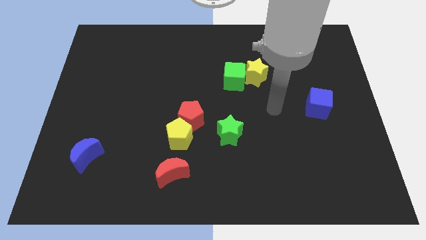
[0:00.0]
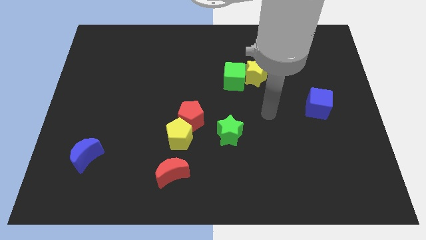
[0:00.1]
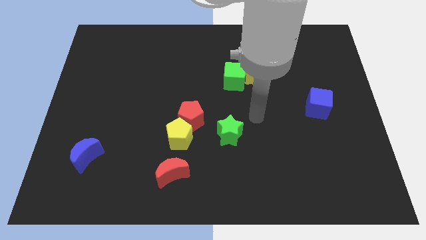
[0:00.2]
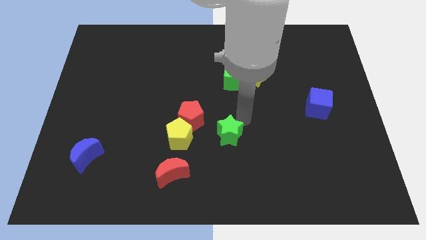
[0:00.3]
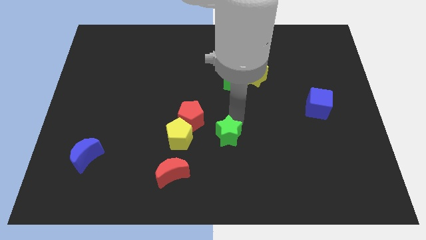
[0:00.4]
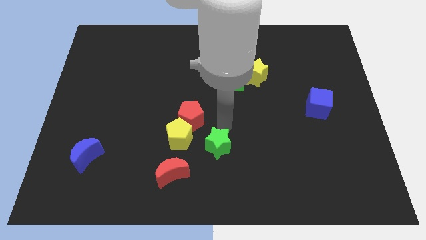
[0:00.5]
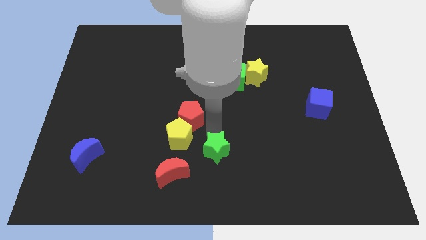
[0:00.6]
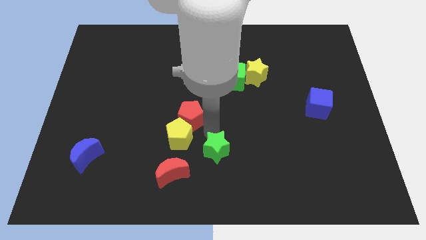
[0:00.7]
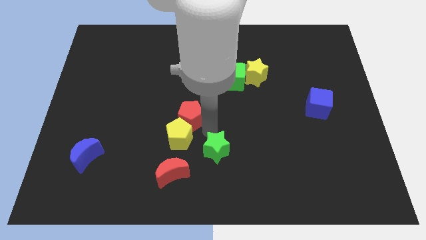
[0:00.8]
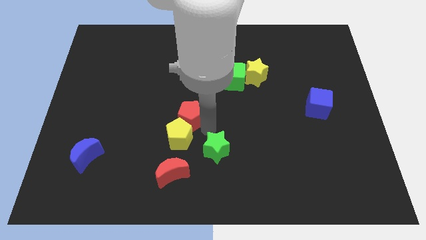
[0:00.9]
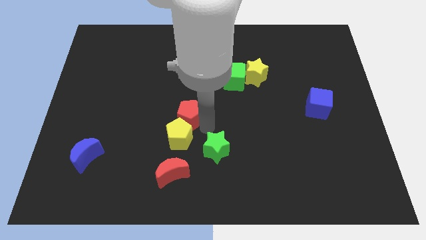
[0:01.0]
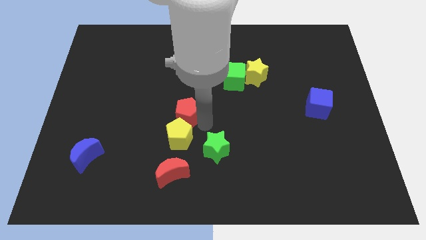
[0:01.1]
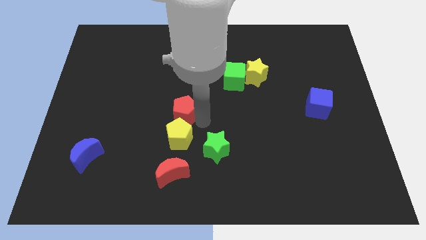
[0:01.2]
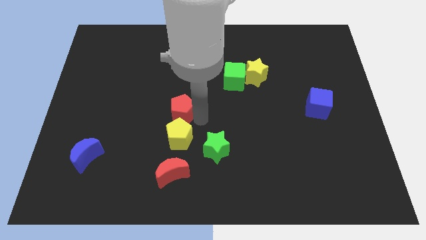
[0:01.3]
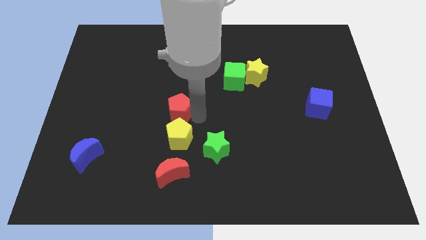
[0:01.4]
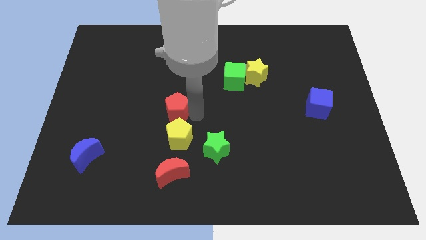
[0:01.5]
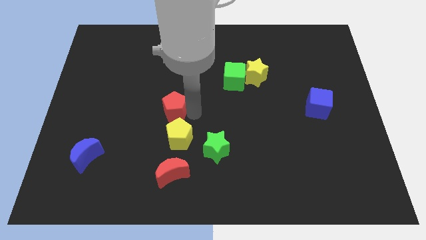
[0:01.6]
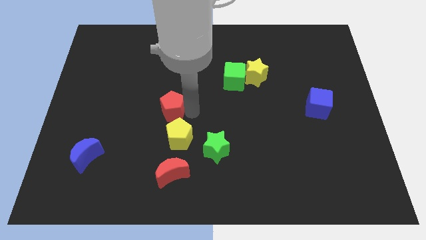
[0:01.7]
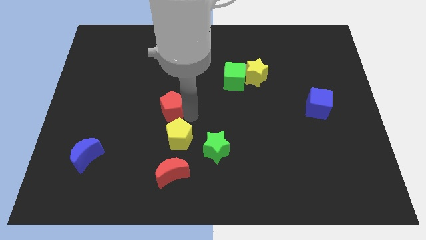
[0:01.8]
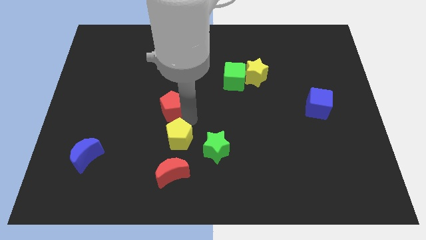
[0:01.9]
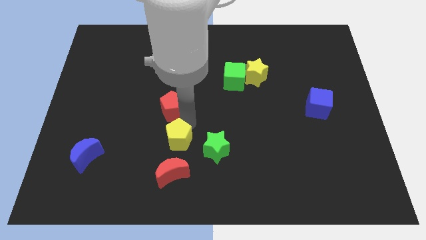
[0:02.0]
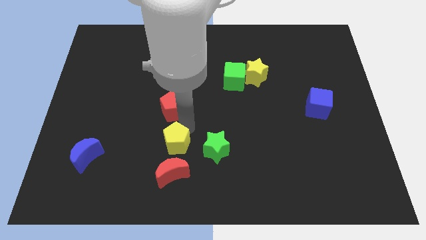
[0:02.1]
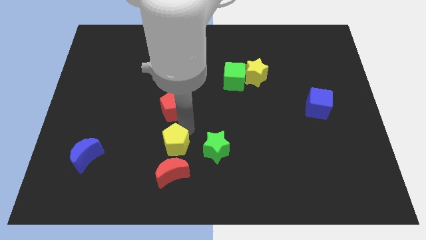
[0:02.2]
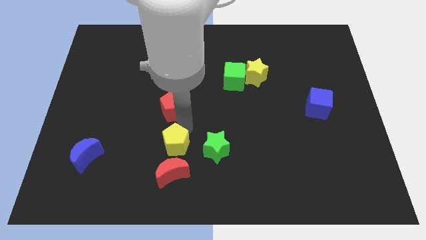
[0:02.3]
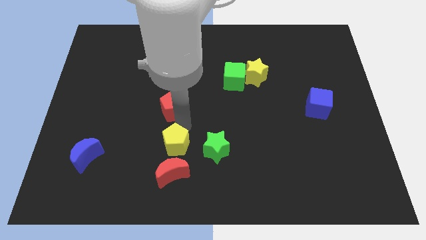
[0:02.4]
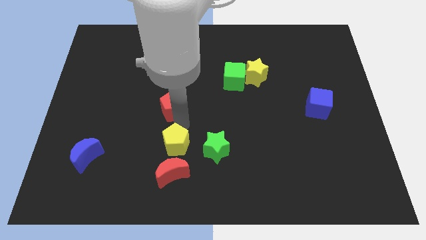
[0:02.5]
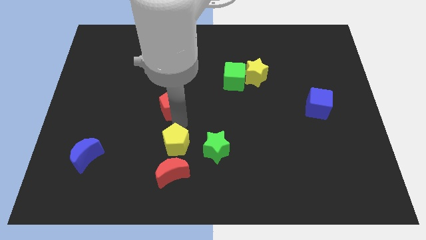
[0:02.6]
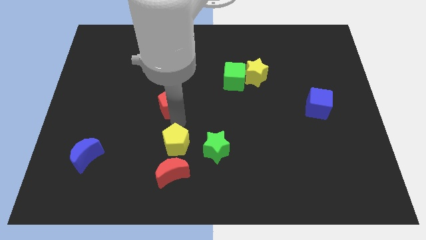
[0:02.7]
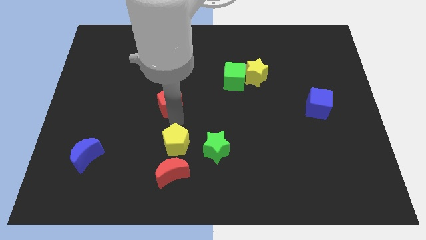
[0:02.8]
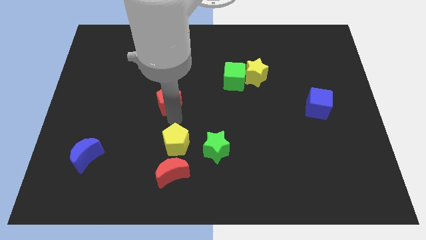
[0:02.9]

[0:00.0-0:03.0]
slightly push the red pentagon up and then to the left

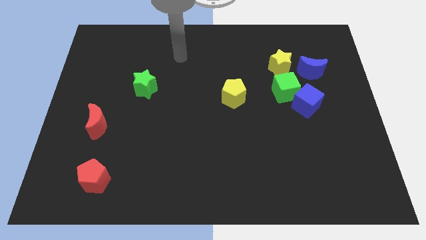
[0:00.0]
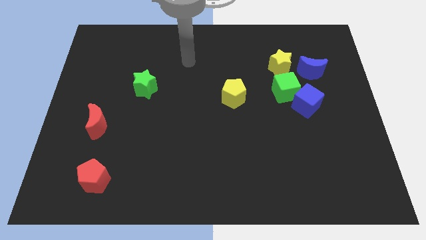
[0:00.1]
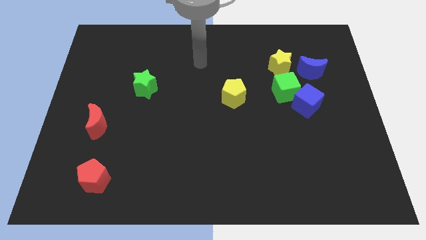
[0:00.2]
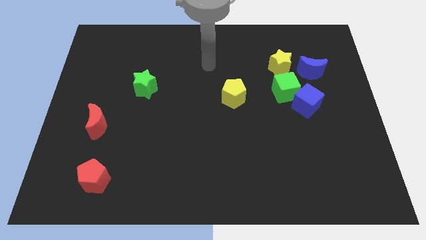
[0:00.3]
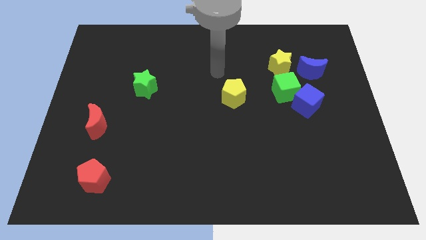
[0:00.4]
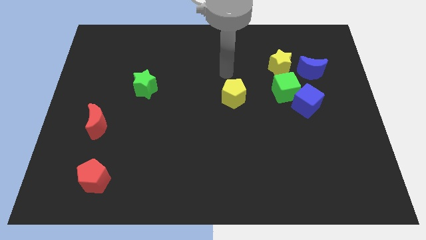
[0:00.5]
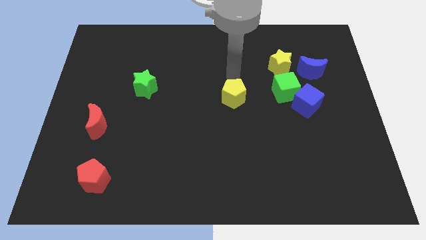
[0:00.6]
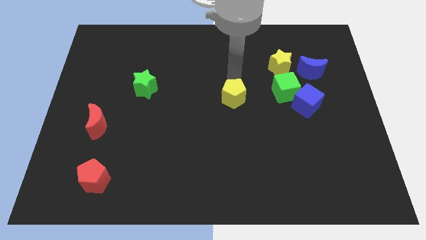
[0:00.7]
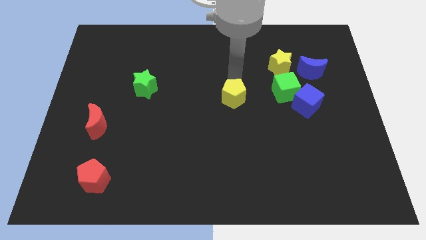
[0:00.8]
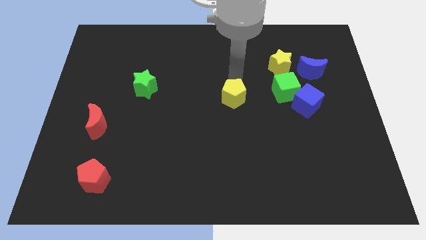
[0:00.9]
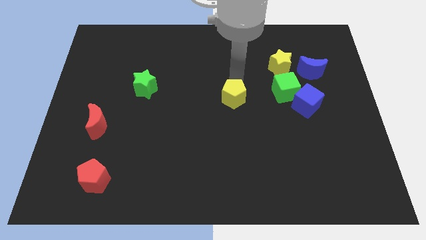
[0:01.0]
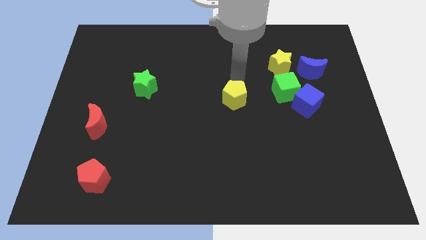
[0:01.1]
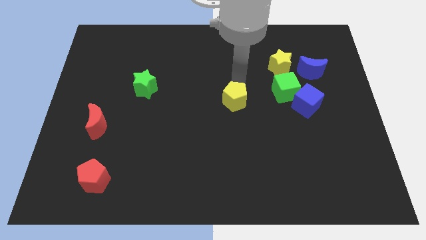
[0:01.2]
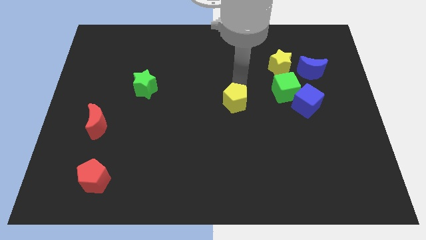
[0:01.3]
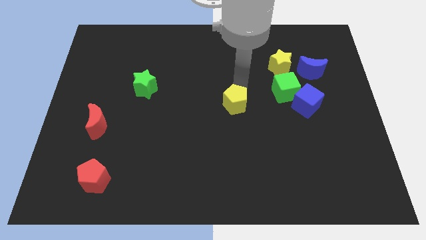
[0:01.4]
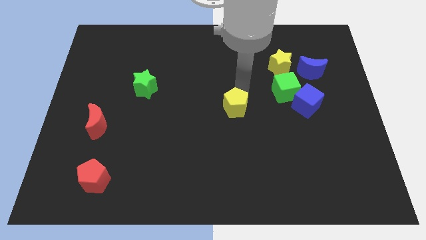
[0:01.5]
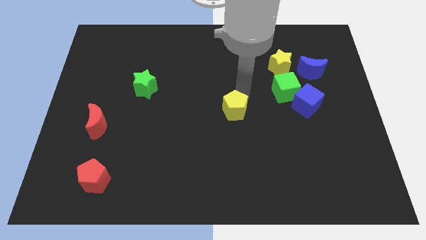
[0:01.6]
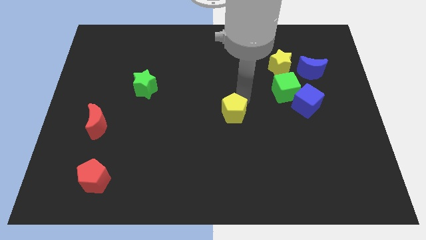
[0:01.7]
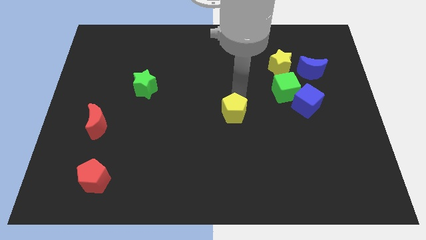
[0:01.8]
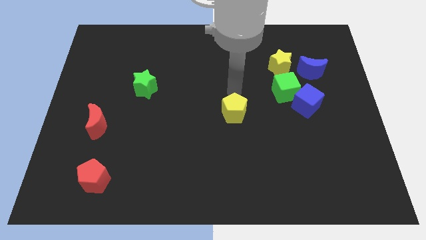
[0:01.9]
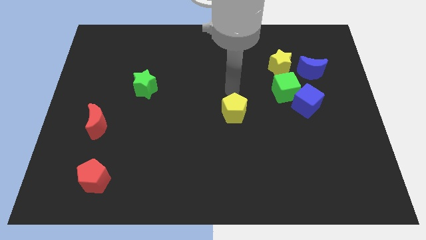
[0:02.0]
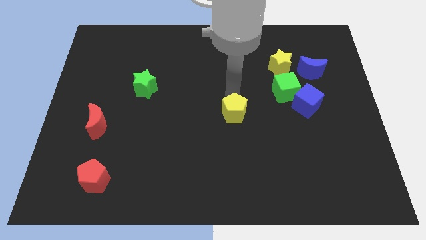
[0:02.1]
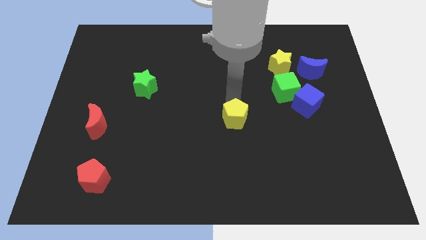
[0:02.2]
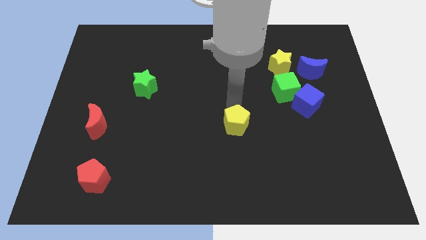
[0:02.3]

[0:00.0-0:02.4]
slightly slide the yellow pentagon down

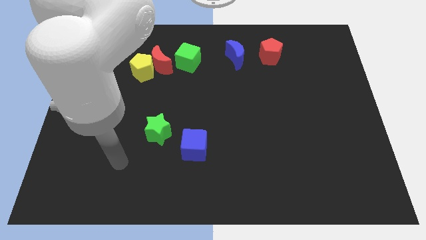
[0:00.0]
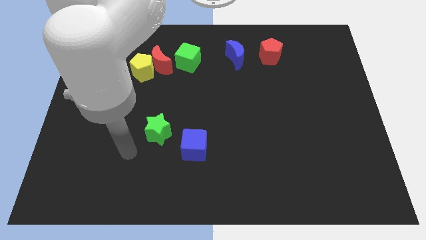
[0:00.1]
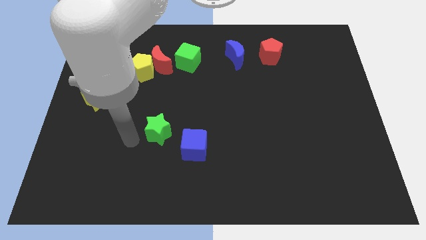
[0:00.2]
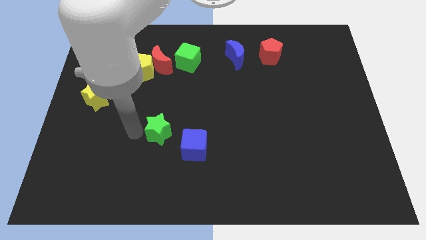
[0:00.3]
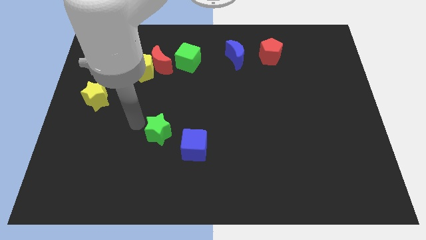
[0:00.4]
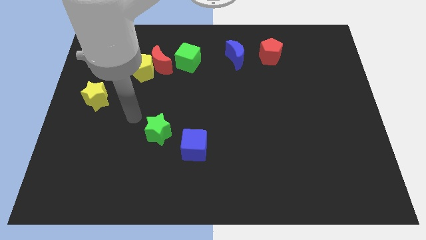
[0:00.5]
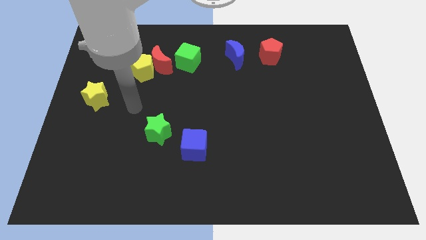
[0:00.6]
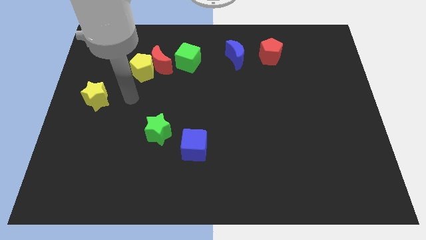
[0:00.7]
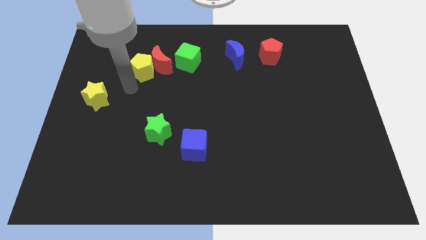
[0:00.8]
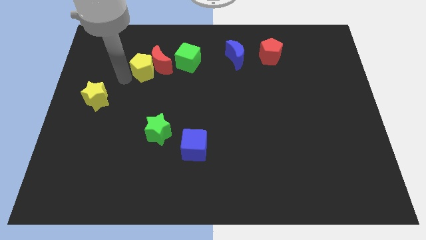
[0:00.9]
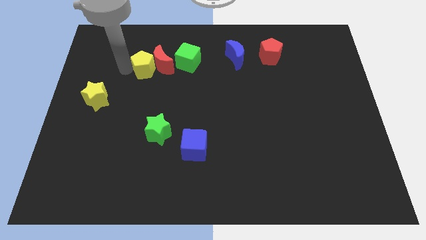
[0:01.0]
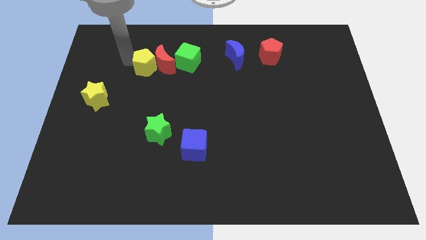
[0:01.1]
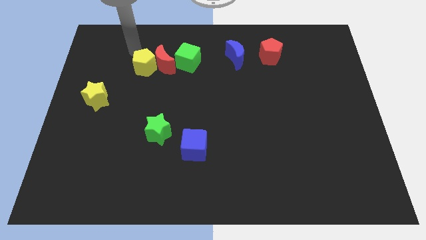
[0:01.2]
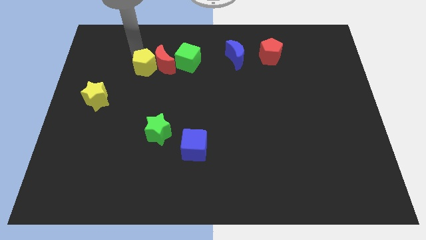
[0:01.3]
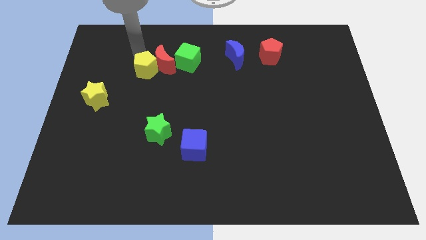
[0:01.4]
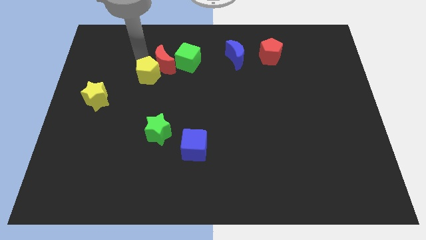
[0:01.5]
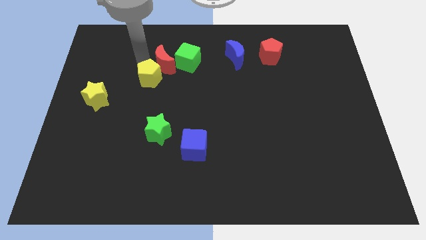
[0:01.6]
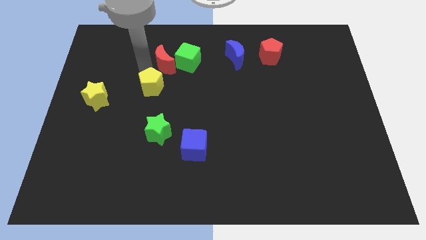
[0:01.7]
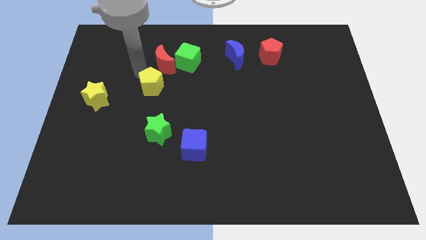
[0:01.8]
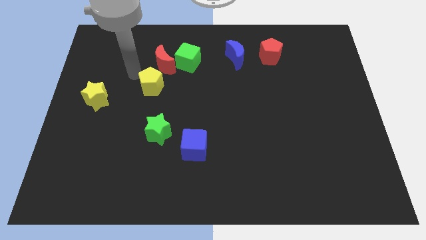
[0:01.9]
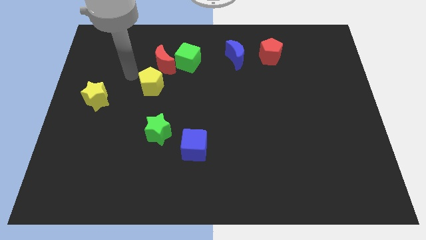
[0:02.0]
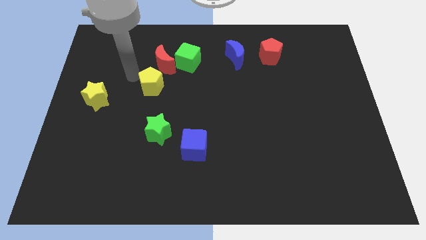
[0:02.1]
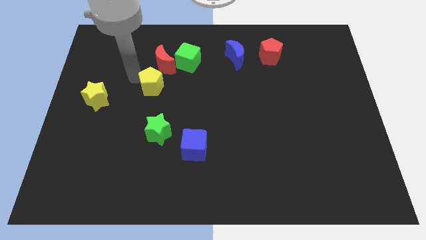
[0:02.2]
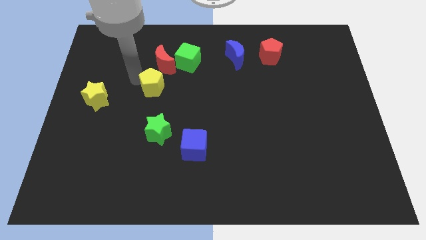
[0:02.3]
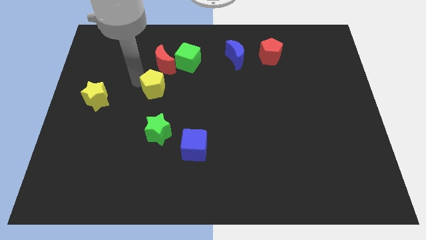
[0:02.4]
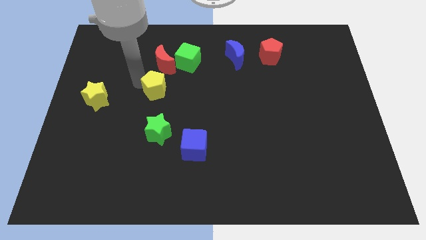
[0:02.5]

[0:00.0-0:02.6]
slightly push the yellow pentagon down and right diagonally
